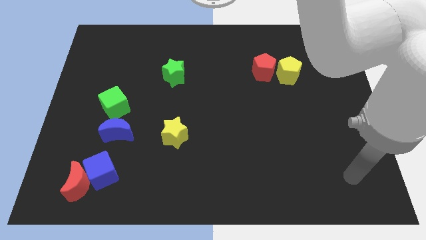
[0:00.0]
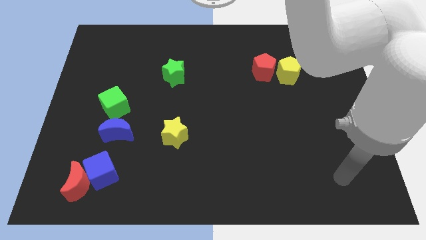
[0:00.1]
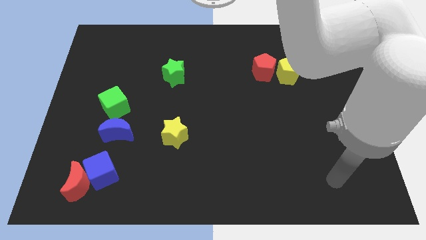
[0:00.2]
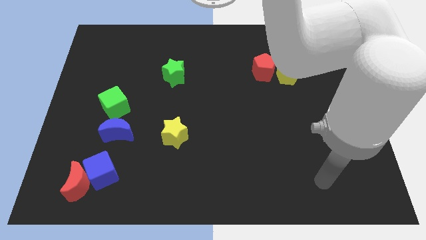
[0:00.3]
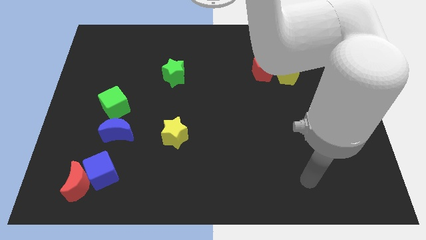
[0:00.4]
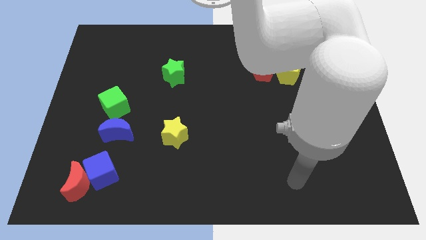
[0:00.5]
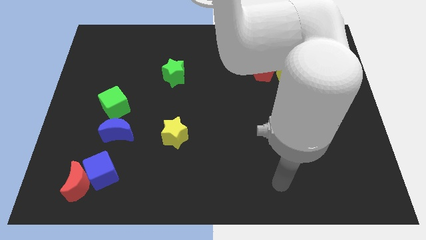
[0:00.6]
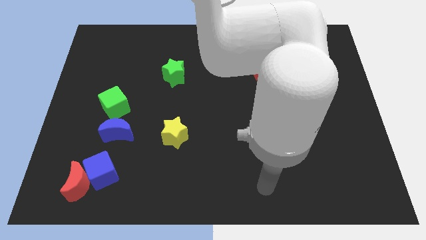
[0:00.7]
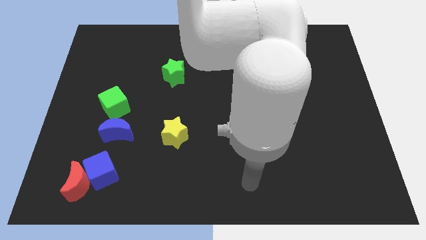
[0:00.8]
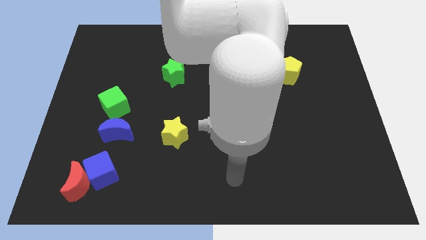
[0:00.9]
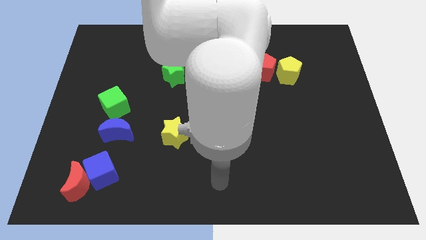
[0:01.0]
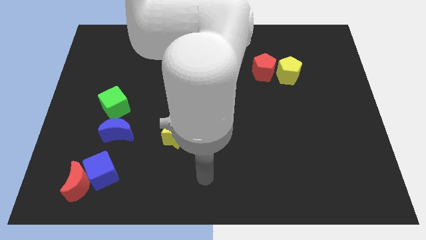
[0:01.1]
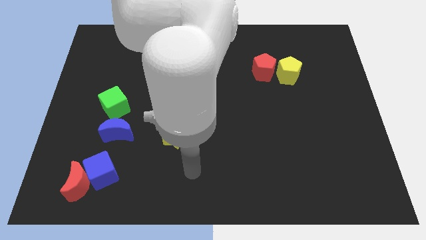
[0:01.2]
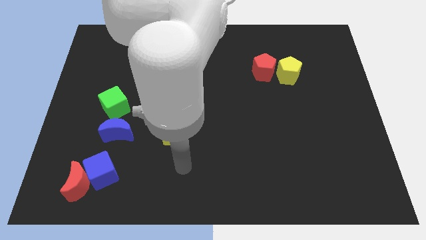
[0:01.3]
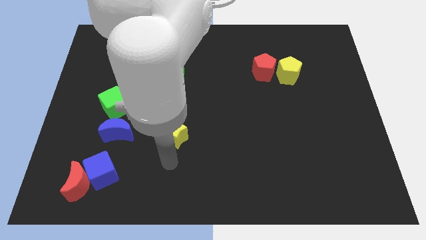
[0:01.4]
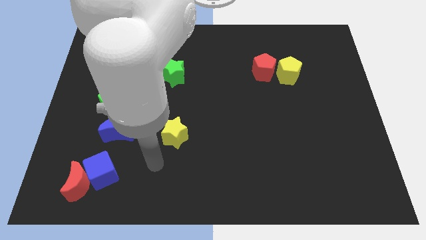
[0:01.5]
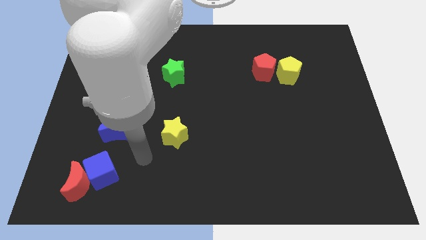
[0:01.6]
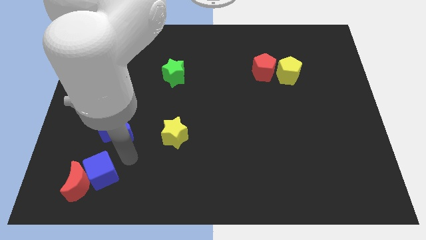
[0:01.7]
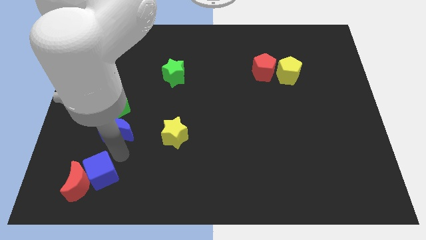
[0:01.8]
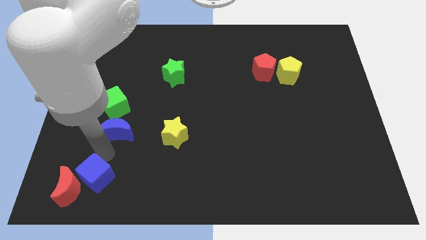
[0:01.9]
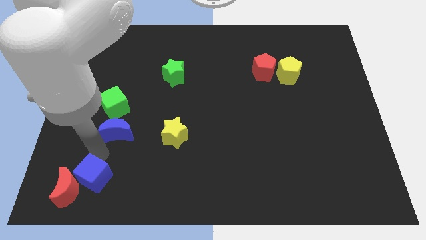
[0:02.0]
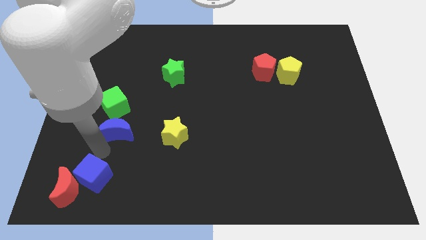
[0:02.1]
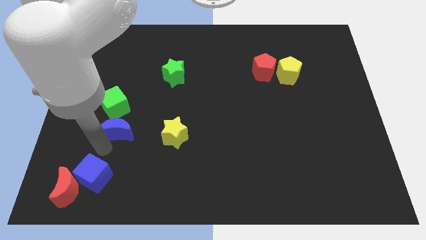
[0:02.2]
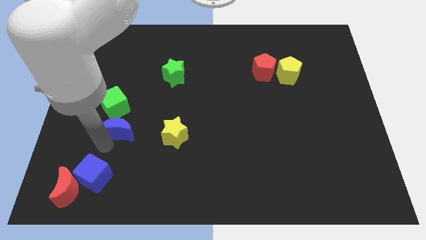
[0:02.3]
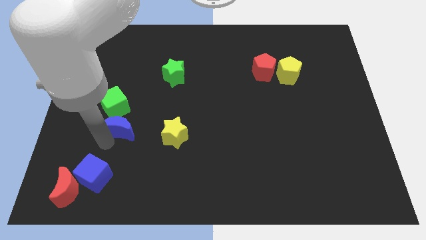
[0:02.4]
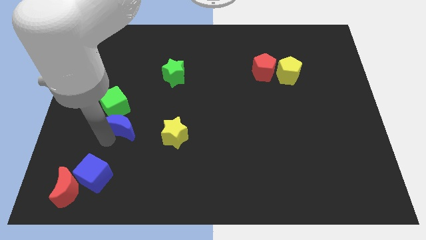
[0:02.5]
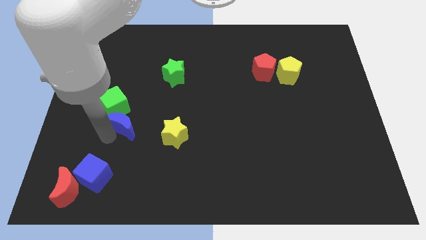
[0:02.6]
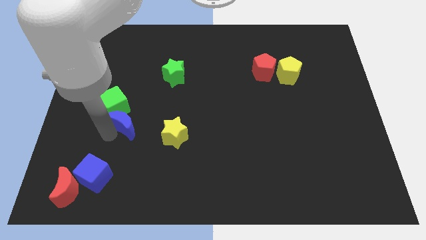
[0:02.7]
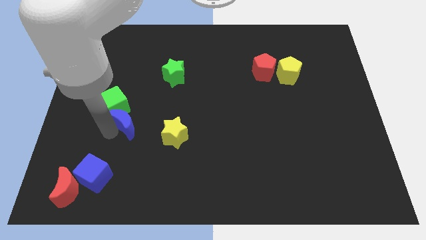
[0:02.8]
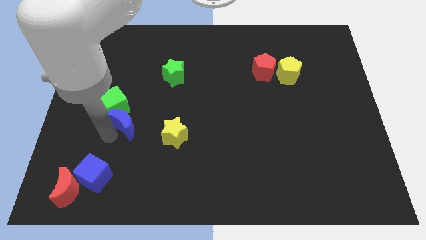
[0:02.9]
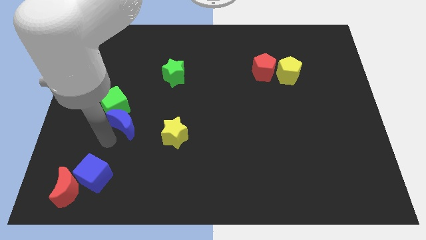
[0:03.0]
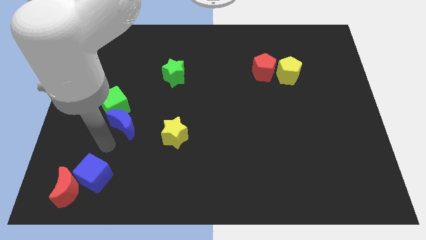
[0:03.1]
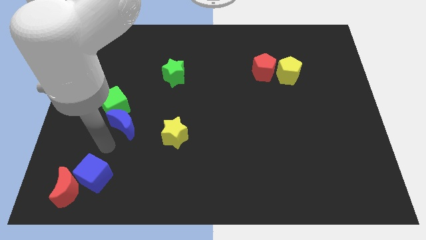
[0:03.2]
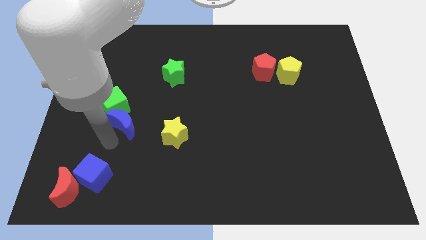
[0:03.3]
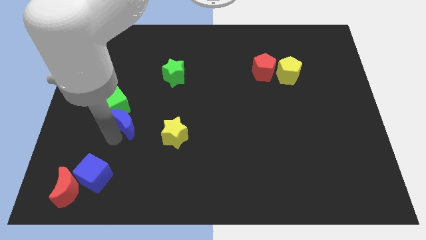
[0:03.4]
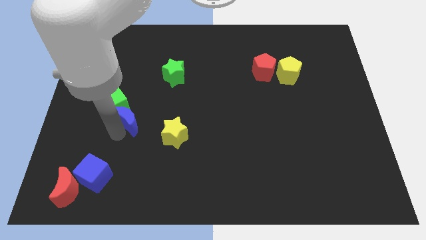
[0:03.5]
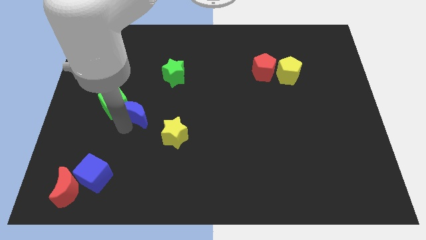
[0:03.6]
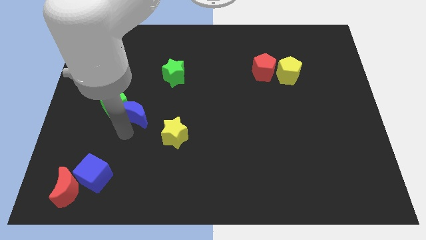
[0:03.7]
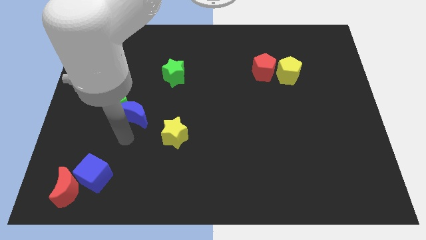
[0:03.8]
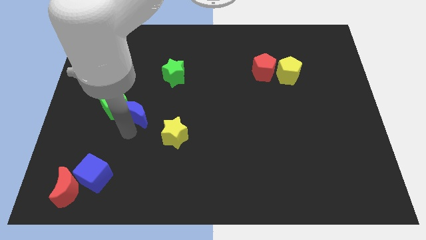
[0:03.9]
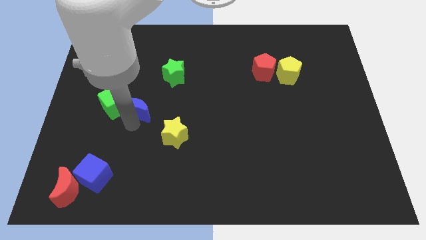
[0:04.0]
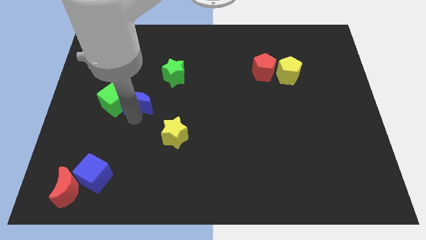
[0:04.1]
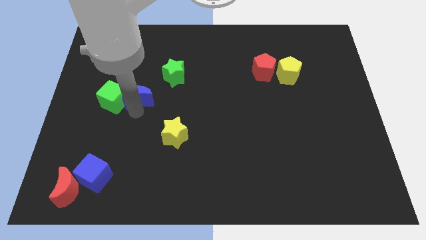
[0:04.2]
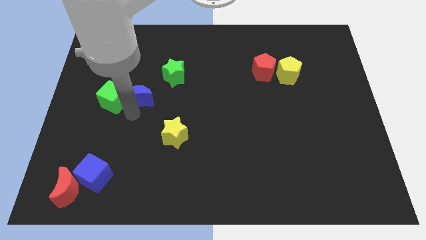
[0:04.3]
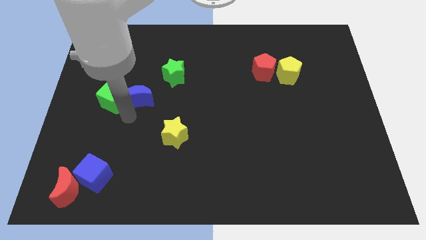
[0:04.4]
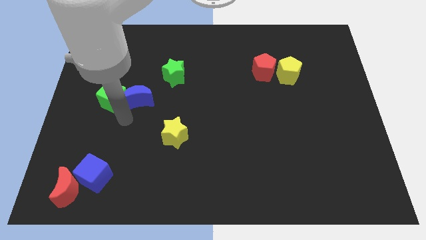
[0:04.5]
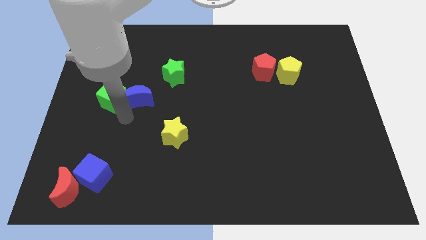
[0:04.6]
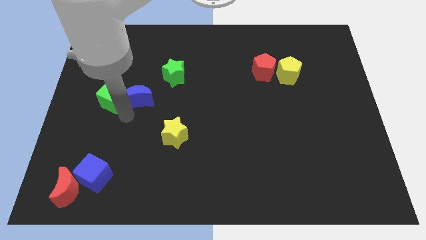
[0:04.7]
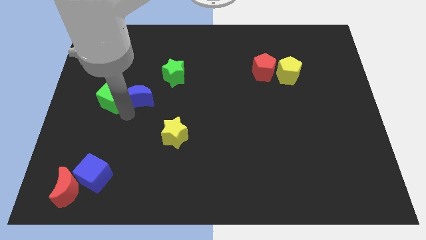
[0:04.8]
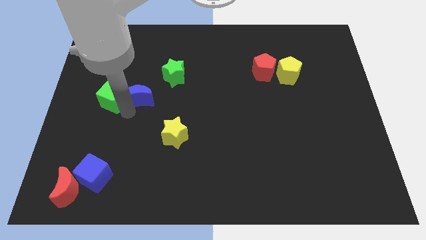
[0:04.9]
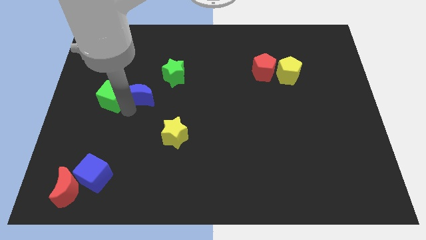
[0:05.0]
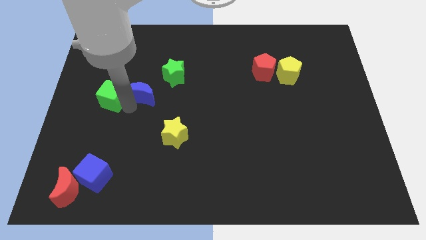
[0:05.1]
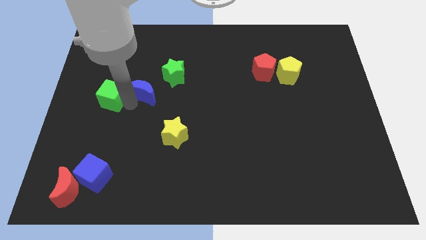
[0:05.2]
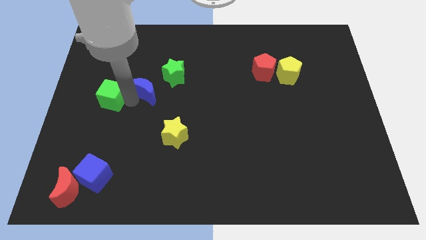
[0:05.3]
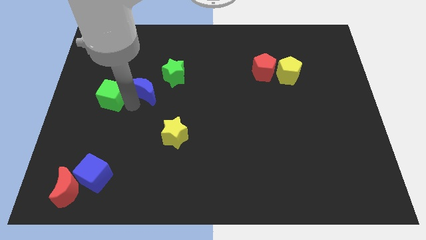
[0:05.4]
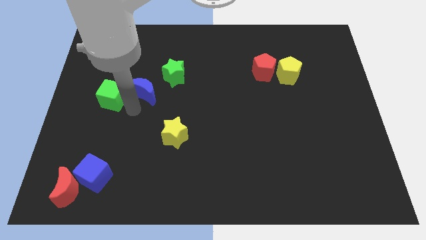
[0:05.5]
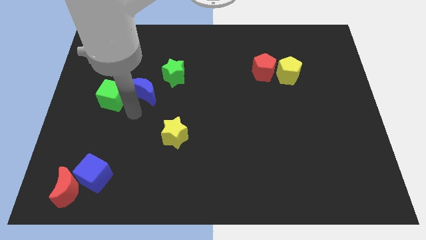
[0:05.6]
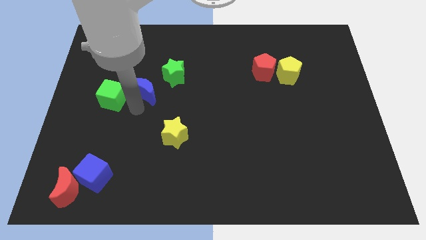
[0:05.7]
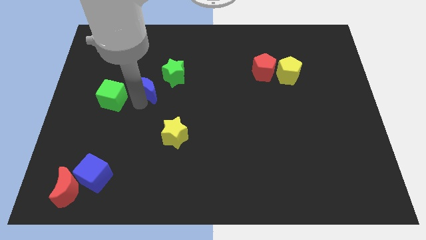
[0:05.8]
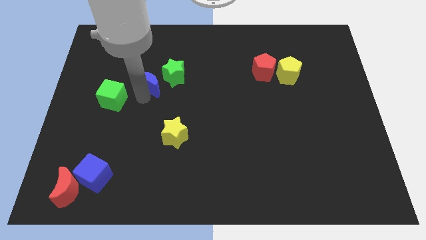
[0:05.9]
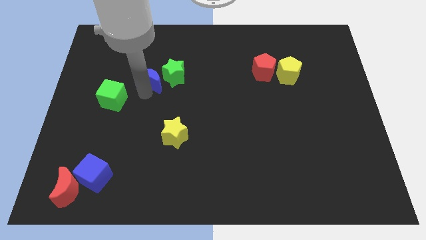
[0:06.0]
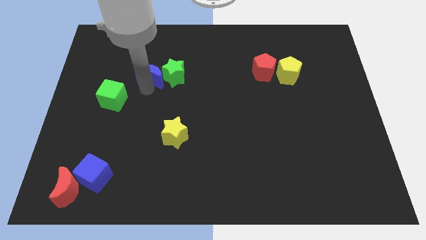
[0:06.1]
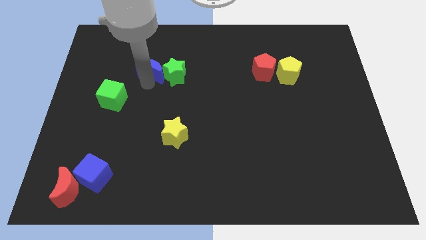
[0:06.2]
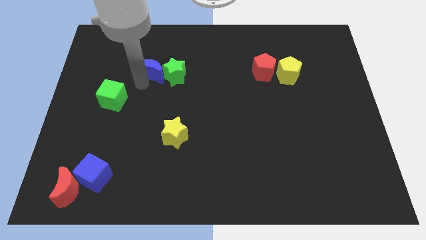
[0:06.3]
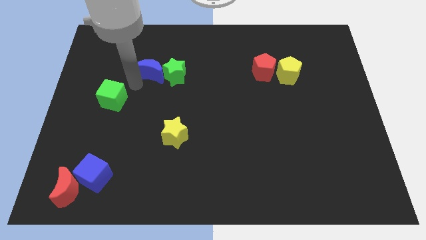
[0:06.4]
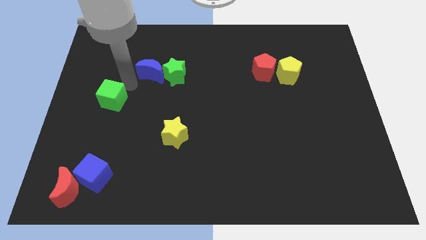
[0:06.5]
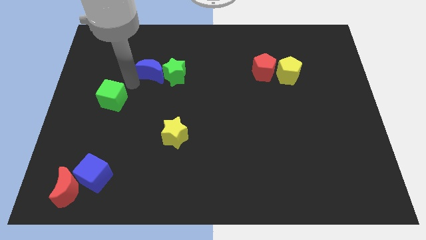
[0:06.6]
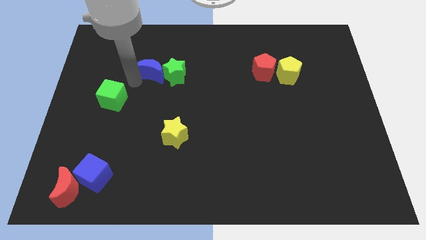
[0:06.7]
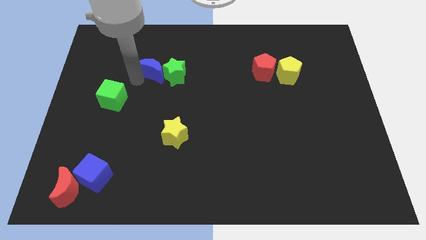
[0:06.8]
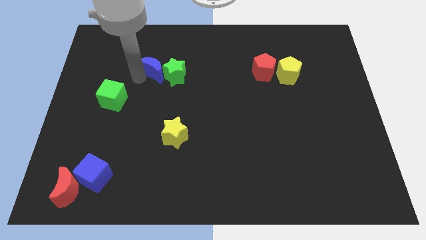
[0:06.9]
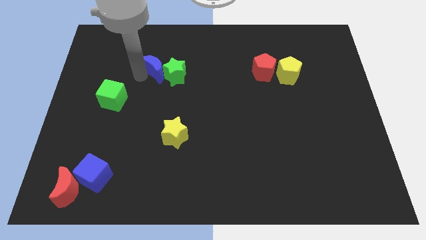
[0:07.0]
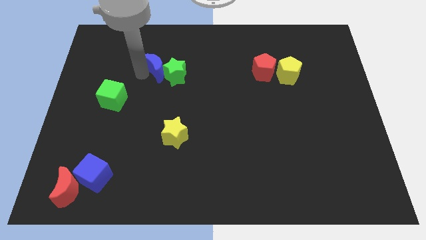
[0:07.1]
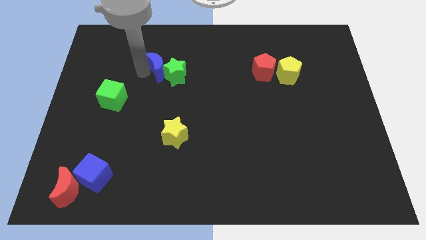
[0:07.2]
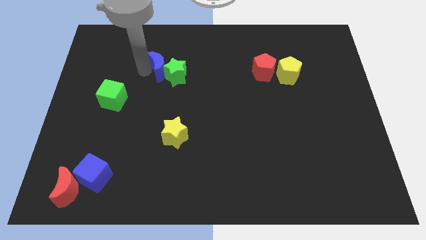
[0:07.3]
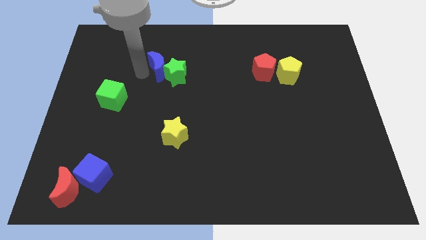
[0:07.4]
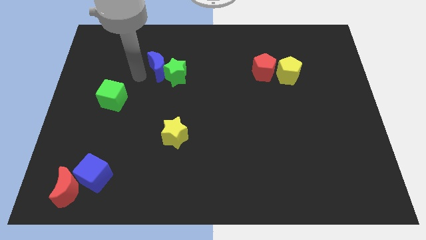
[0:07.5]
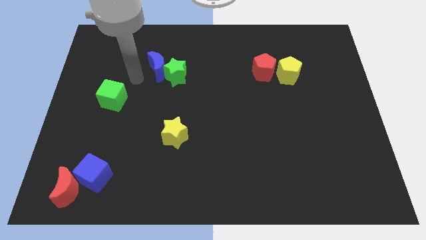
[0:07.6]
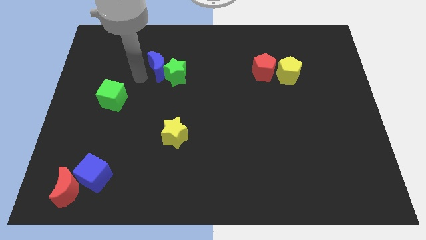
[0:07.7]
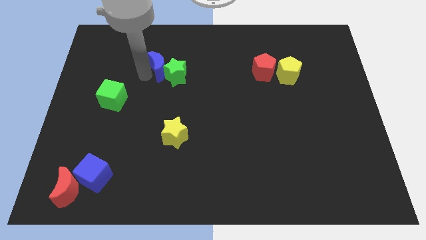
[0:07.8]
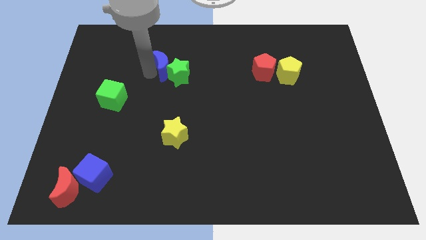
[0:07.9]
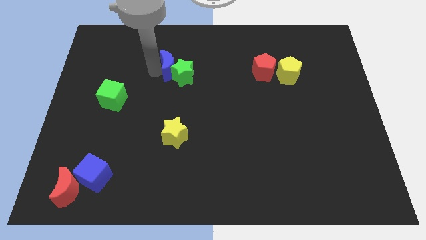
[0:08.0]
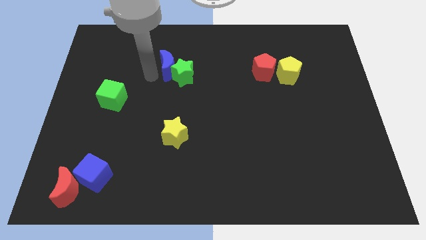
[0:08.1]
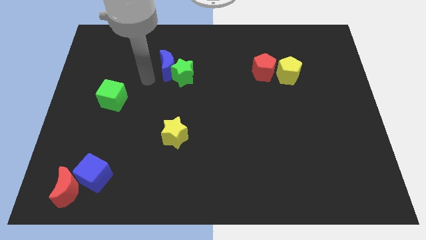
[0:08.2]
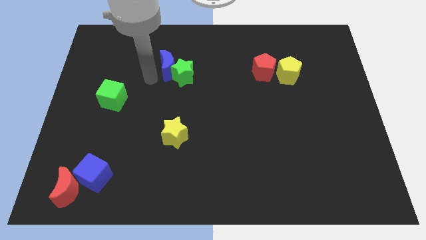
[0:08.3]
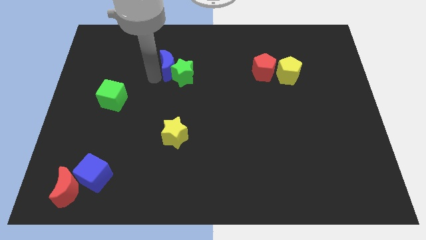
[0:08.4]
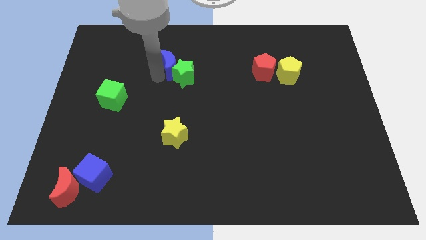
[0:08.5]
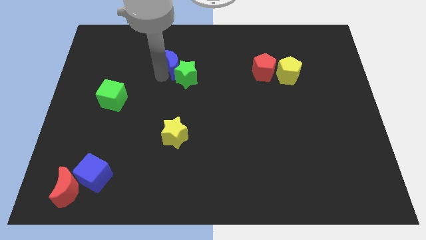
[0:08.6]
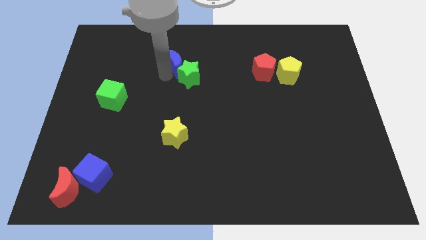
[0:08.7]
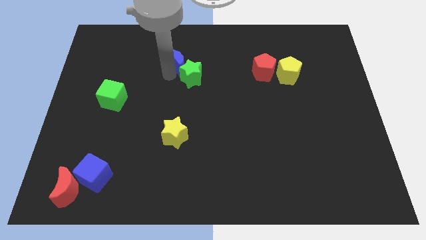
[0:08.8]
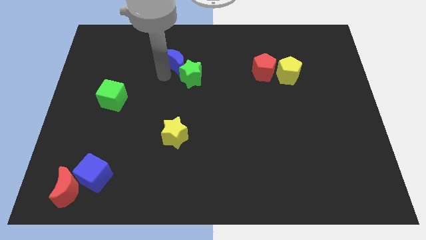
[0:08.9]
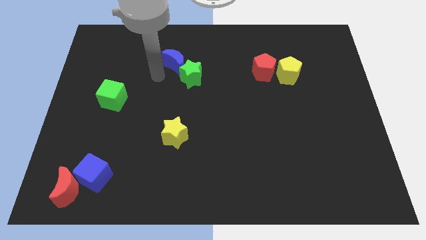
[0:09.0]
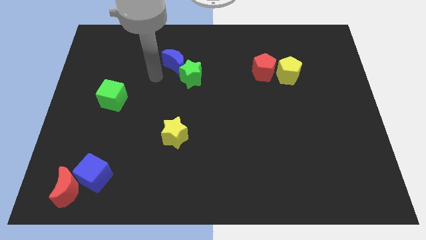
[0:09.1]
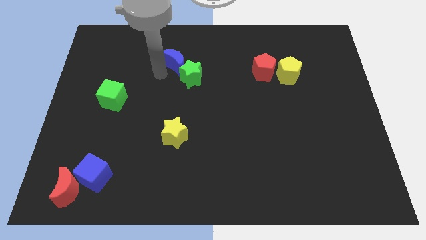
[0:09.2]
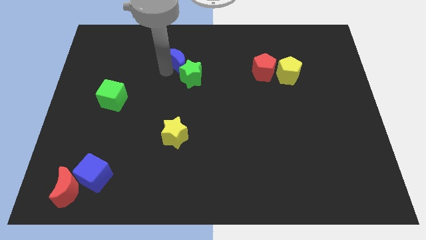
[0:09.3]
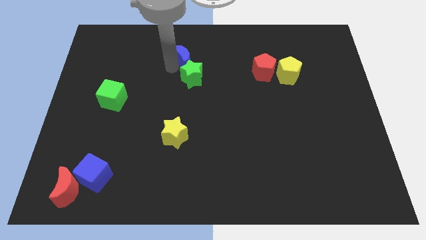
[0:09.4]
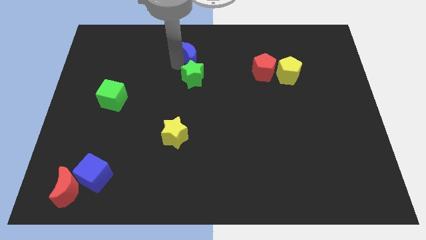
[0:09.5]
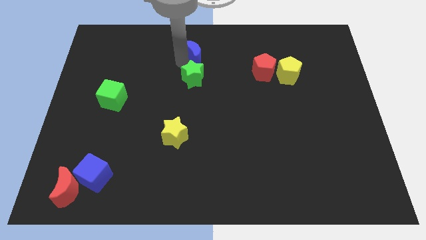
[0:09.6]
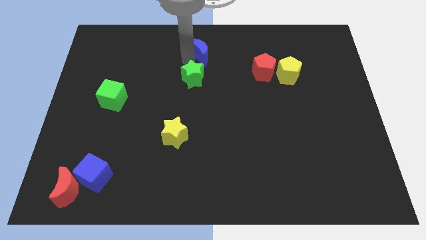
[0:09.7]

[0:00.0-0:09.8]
put the blue moon to the top side
